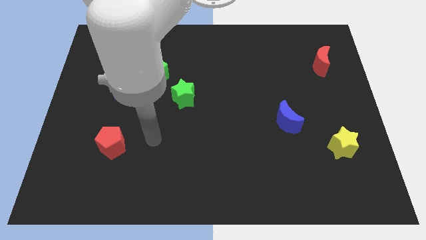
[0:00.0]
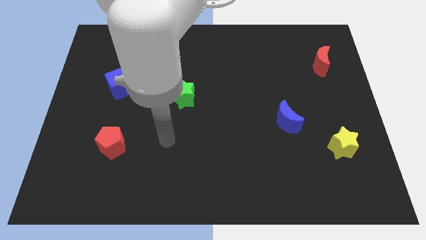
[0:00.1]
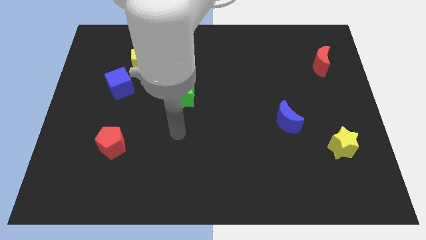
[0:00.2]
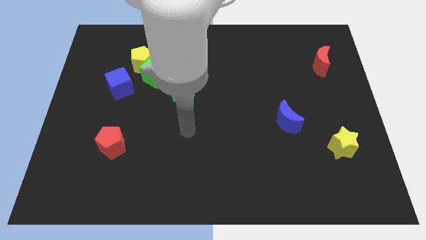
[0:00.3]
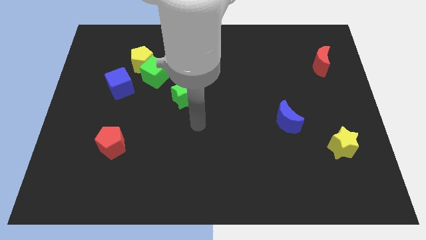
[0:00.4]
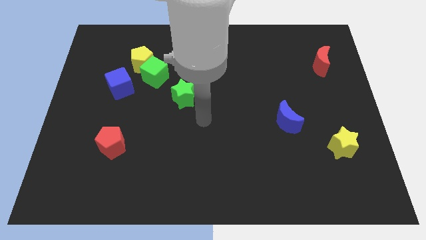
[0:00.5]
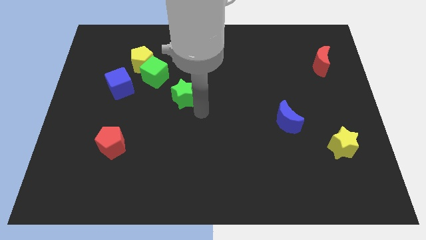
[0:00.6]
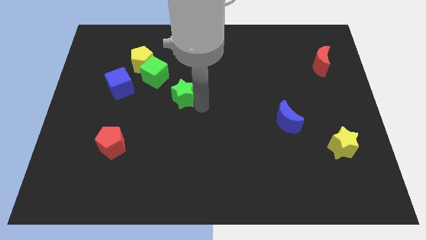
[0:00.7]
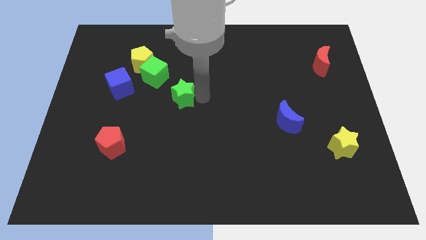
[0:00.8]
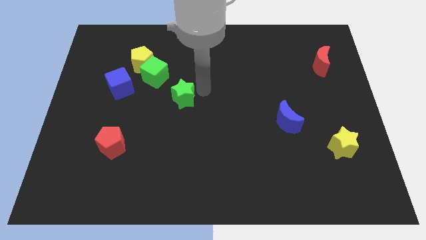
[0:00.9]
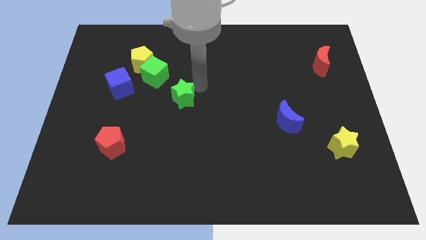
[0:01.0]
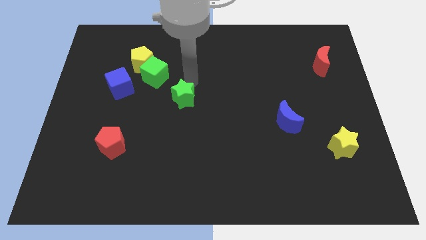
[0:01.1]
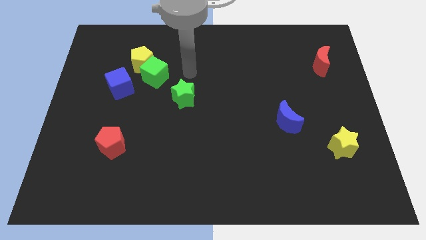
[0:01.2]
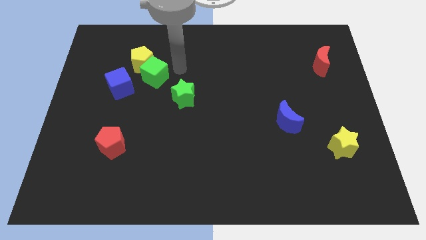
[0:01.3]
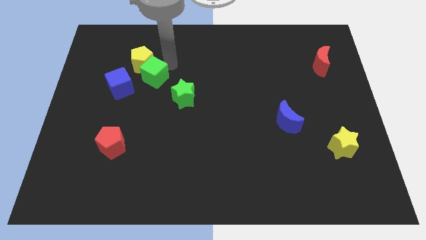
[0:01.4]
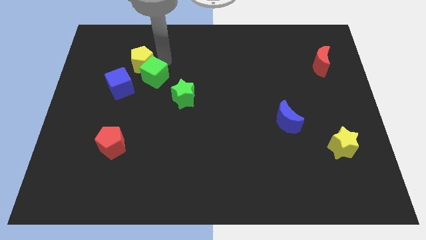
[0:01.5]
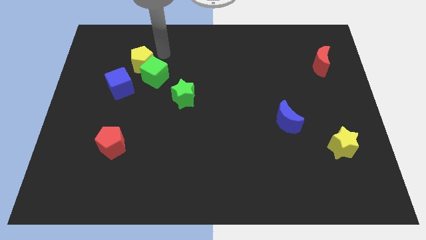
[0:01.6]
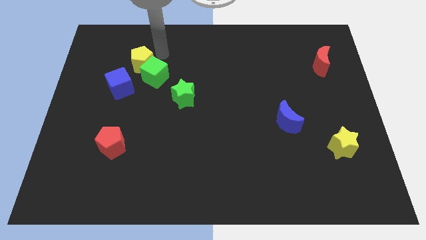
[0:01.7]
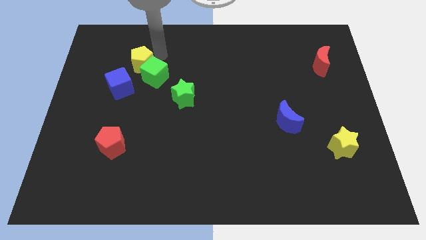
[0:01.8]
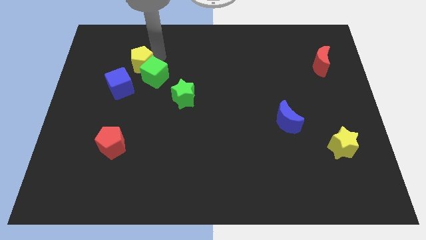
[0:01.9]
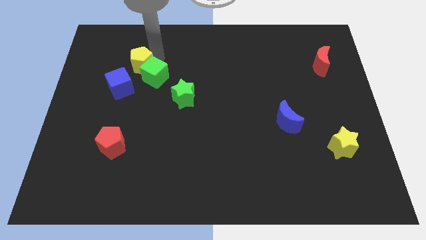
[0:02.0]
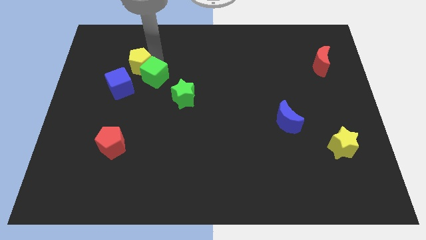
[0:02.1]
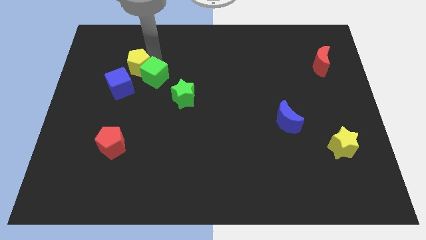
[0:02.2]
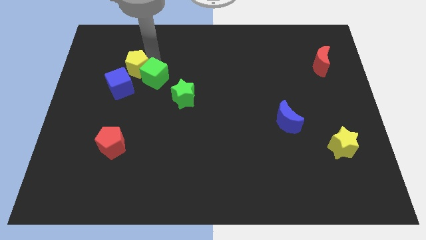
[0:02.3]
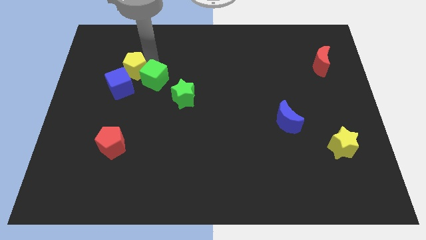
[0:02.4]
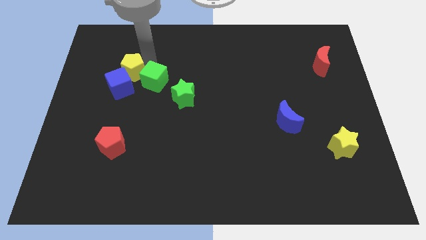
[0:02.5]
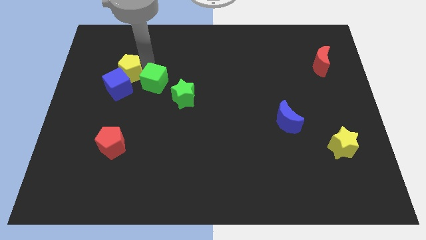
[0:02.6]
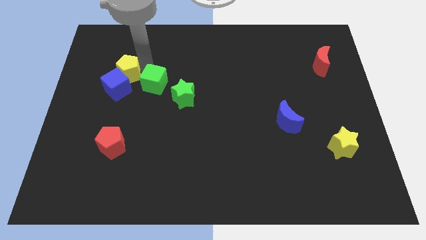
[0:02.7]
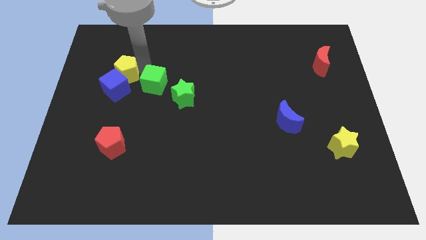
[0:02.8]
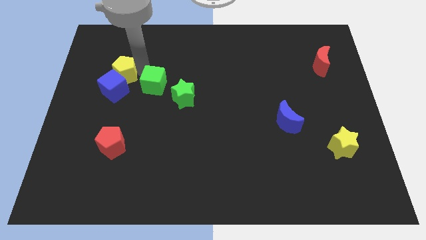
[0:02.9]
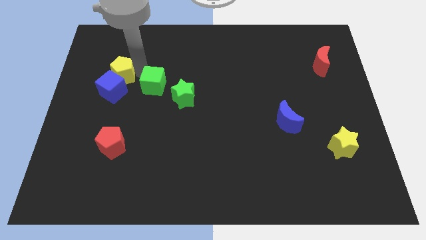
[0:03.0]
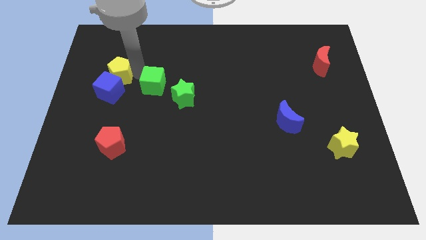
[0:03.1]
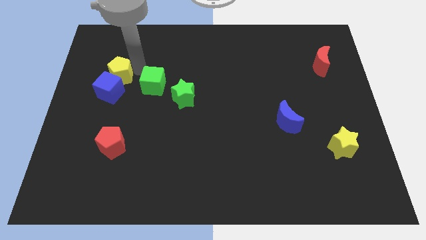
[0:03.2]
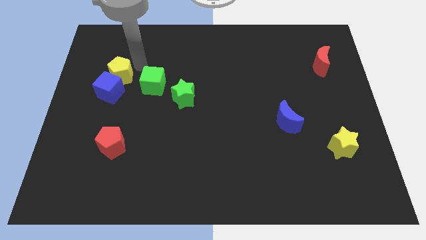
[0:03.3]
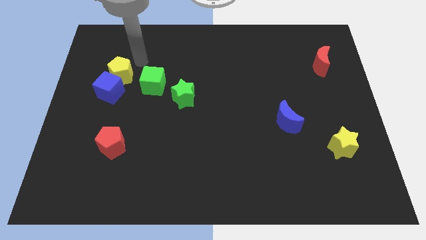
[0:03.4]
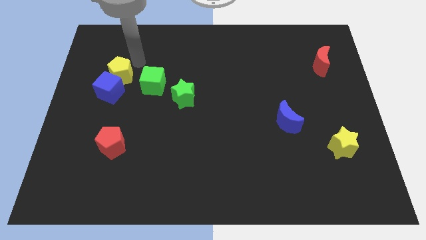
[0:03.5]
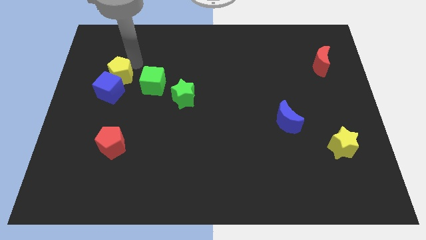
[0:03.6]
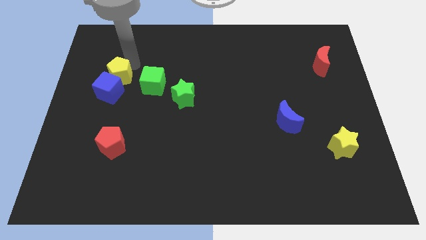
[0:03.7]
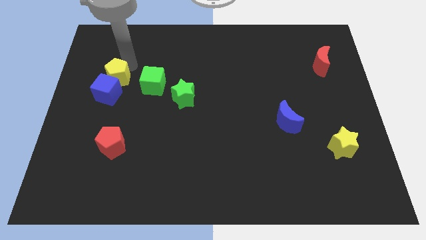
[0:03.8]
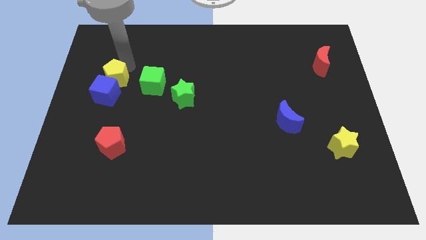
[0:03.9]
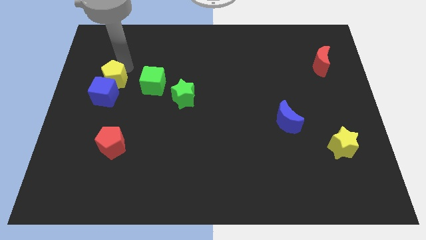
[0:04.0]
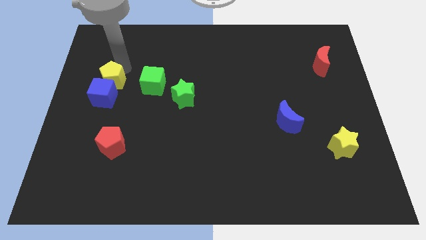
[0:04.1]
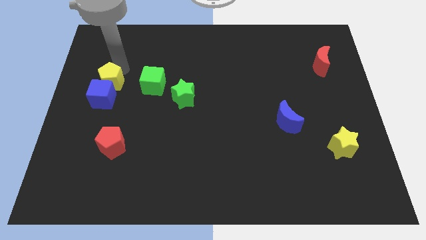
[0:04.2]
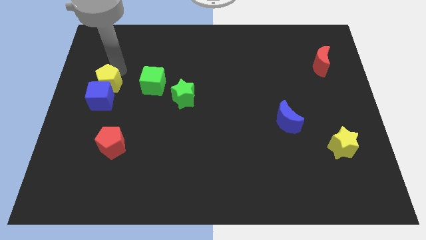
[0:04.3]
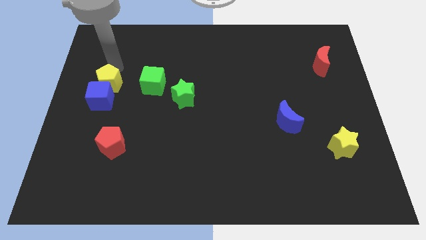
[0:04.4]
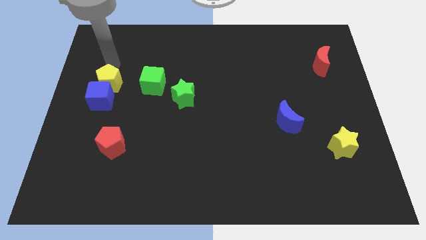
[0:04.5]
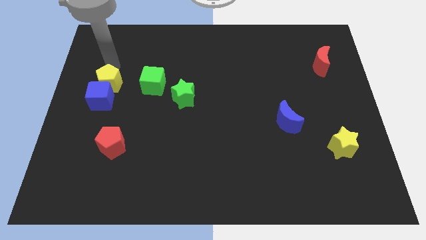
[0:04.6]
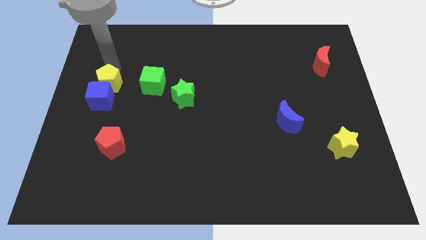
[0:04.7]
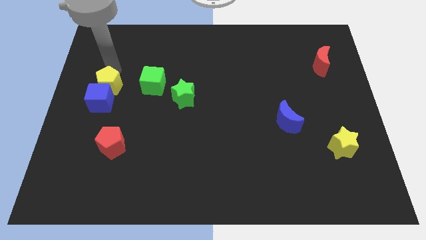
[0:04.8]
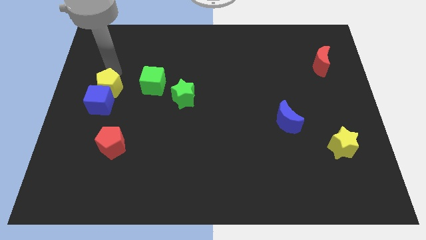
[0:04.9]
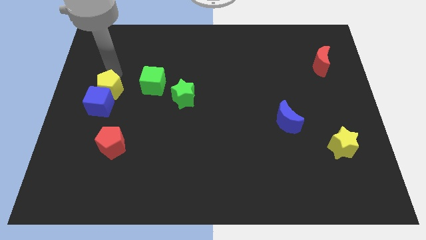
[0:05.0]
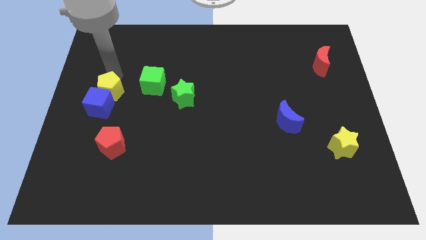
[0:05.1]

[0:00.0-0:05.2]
move the yellow pentagon down a bit

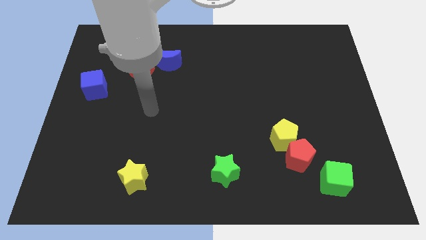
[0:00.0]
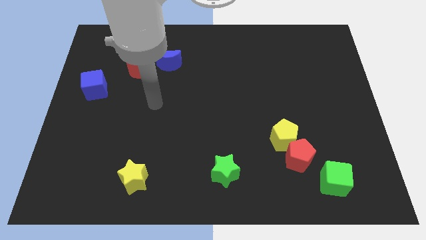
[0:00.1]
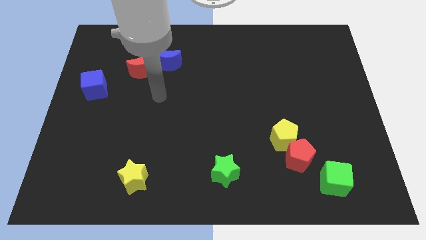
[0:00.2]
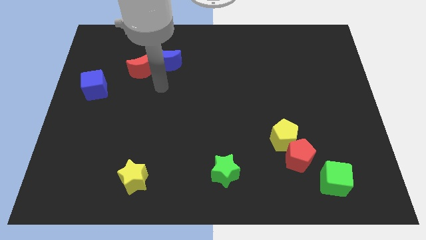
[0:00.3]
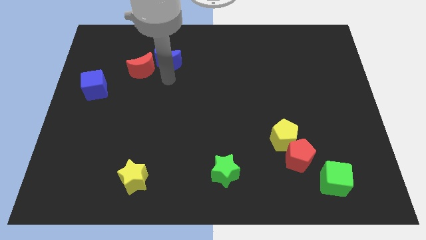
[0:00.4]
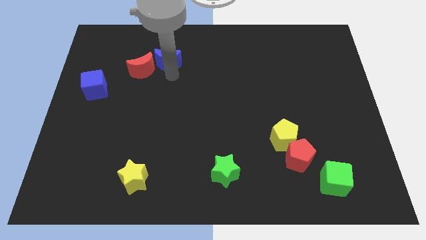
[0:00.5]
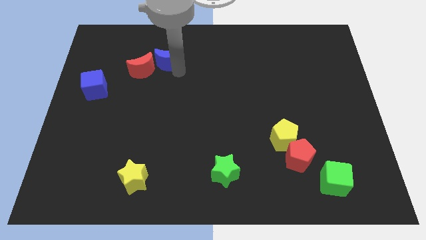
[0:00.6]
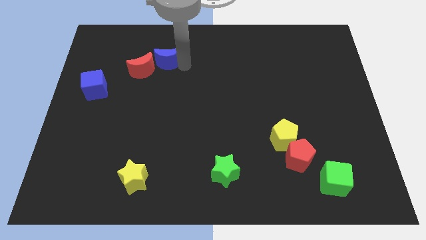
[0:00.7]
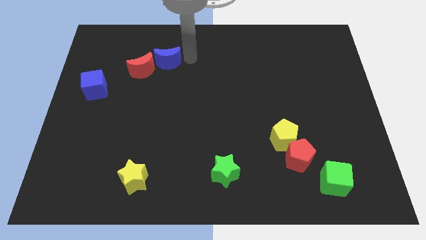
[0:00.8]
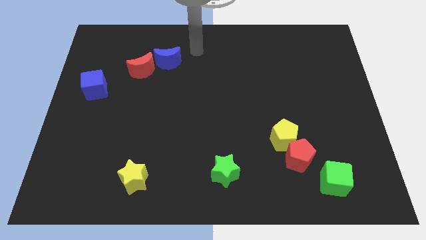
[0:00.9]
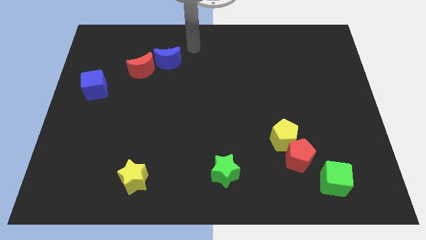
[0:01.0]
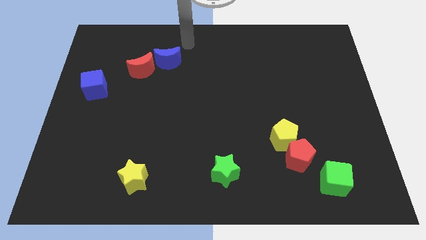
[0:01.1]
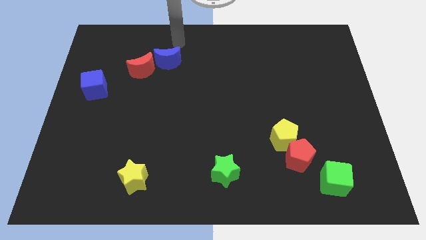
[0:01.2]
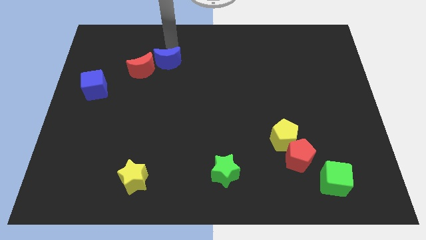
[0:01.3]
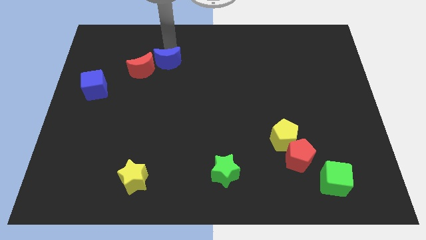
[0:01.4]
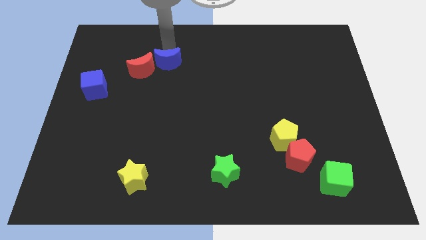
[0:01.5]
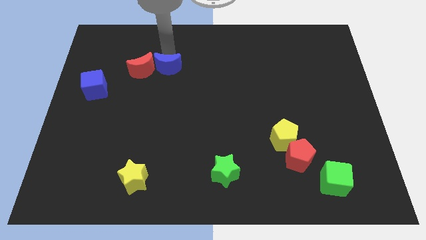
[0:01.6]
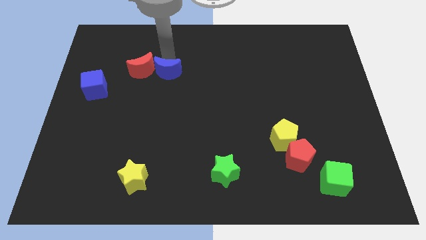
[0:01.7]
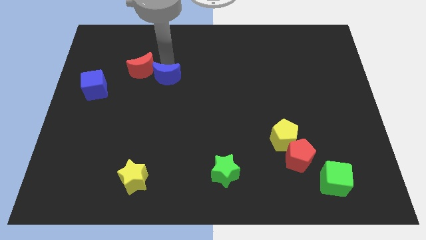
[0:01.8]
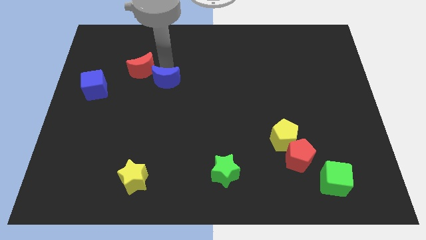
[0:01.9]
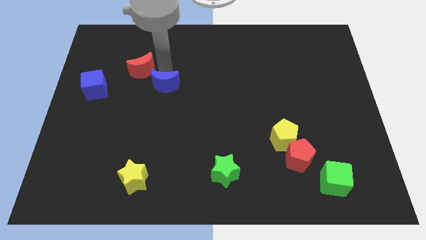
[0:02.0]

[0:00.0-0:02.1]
slightly slide the blue moon downwards

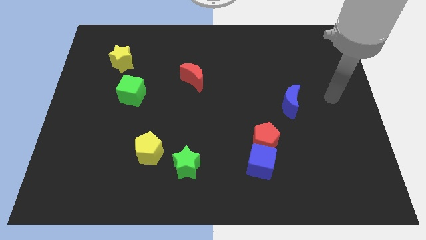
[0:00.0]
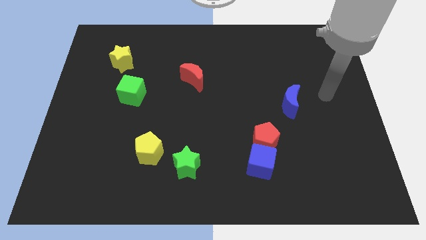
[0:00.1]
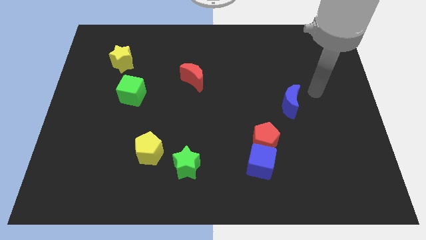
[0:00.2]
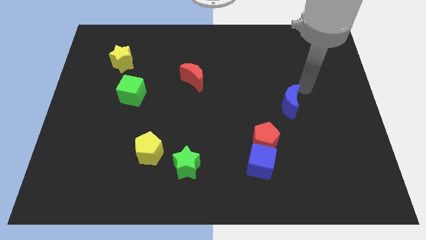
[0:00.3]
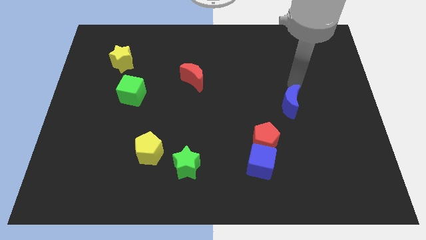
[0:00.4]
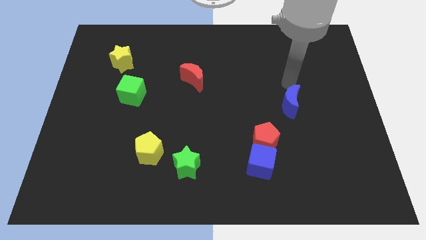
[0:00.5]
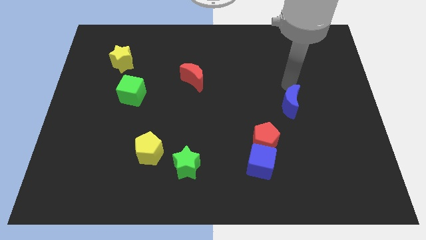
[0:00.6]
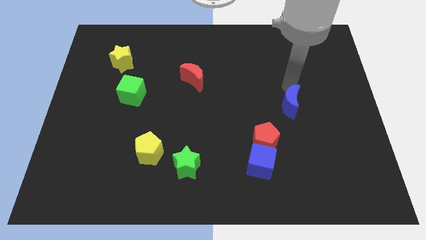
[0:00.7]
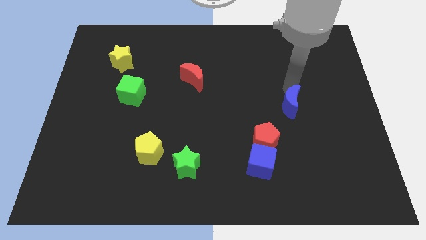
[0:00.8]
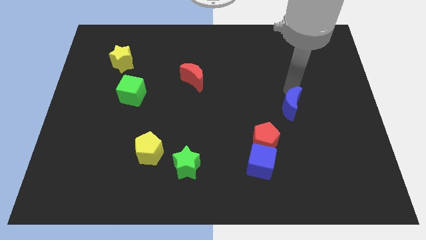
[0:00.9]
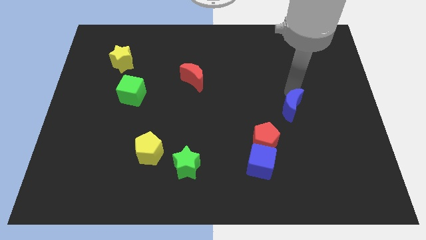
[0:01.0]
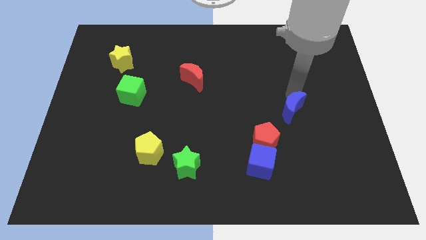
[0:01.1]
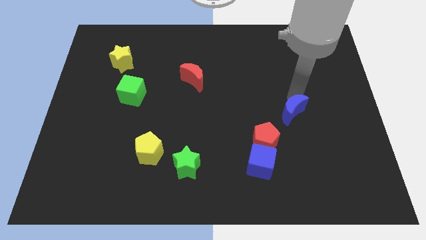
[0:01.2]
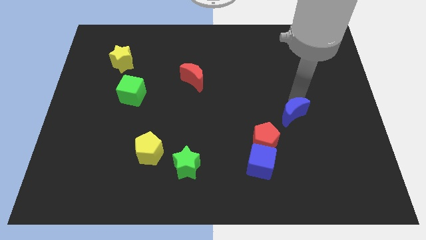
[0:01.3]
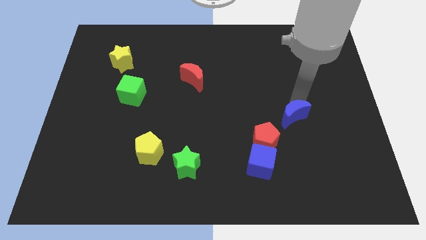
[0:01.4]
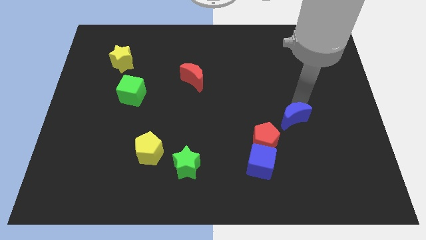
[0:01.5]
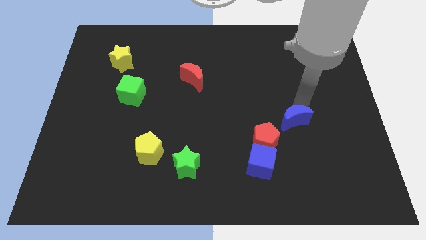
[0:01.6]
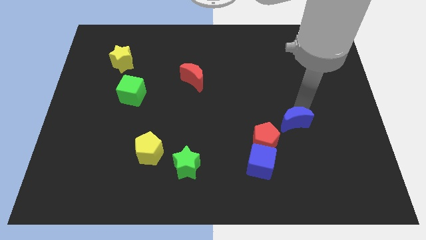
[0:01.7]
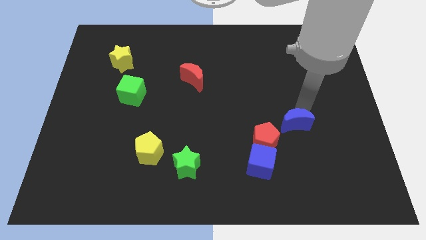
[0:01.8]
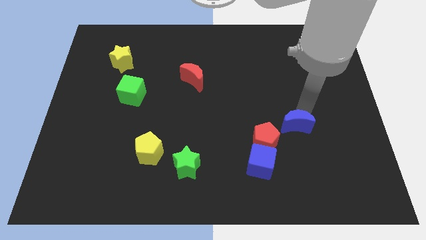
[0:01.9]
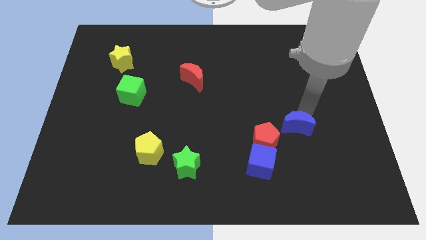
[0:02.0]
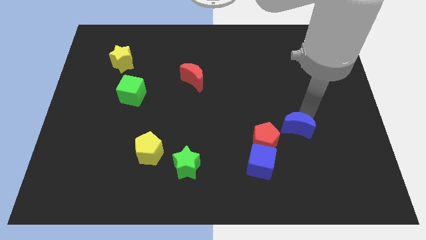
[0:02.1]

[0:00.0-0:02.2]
slide the blue moon somewhat down
